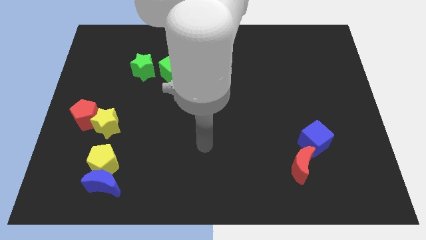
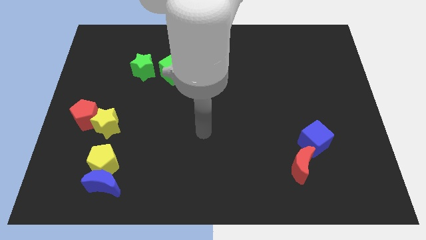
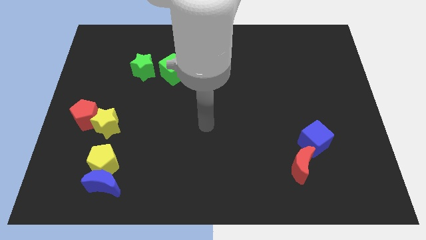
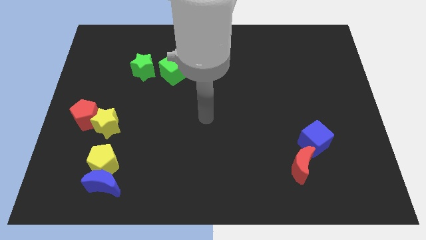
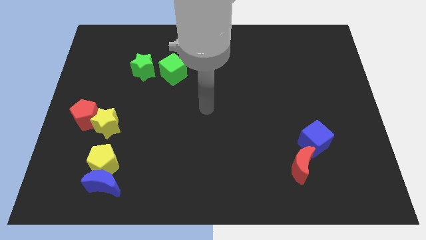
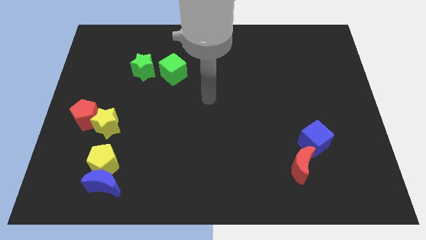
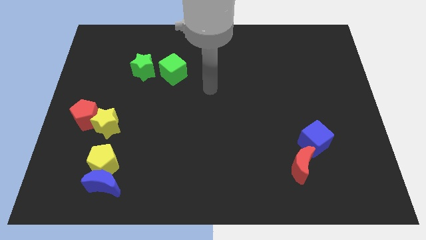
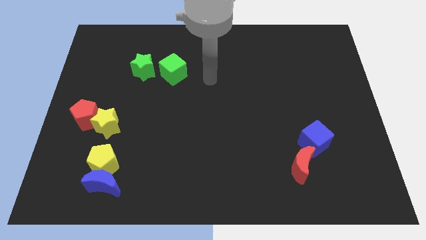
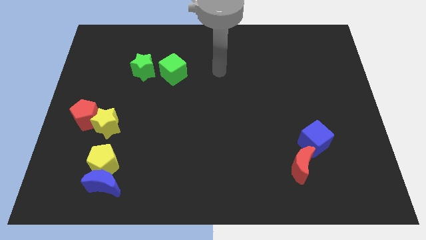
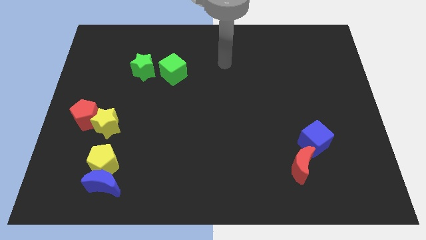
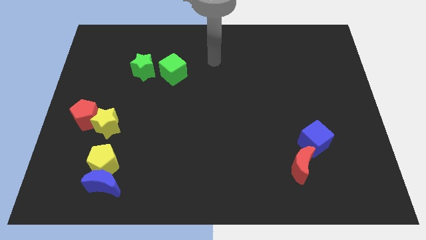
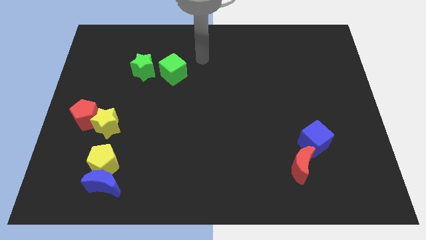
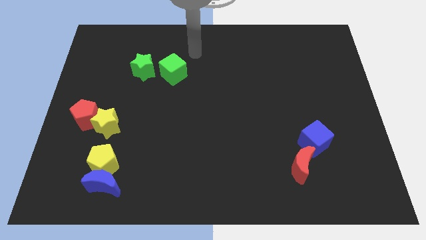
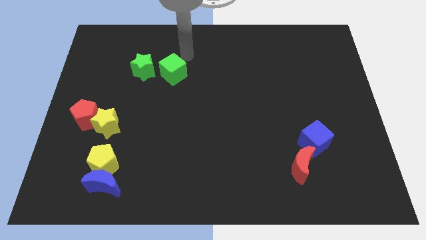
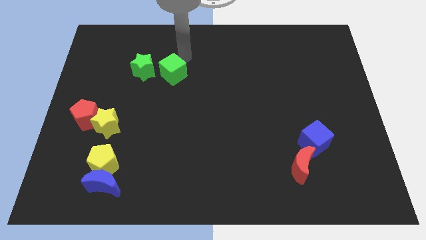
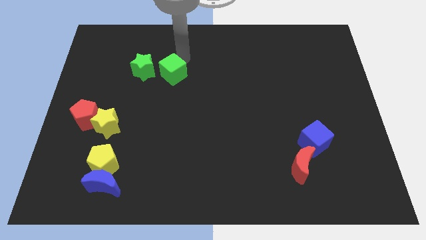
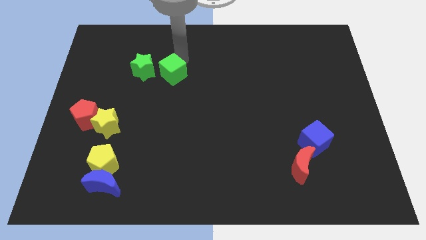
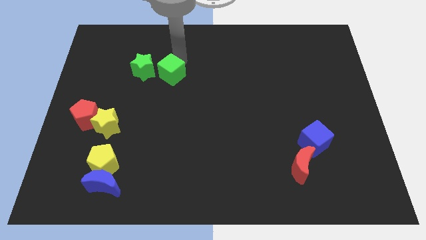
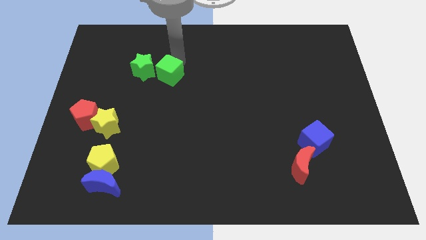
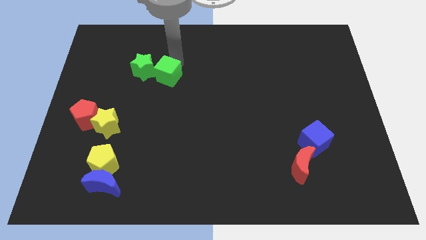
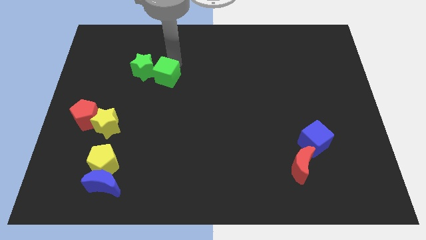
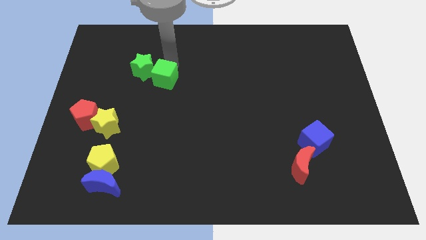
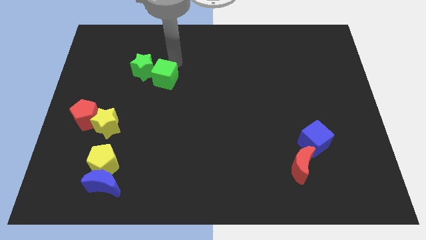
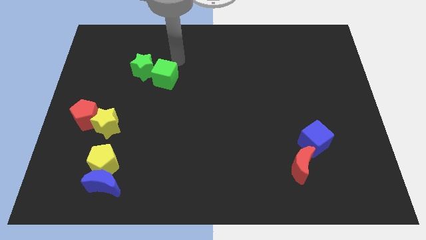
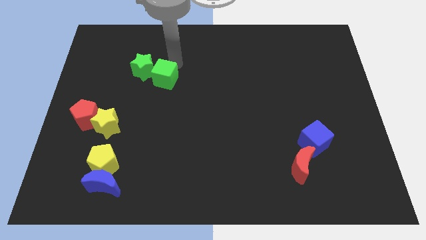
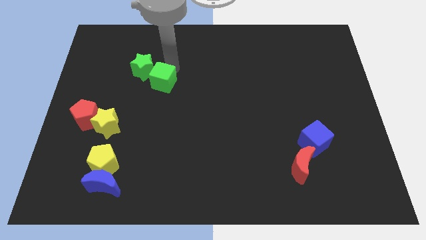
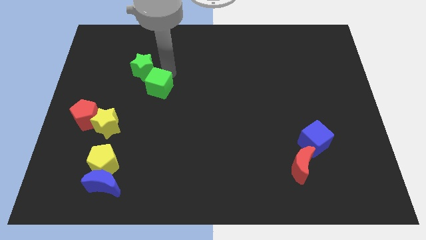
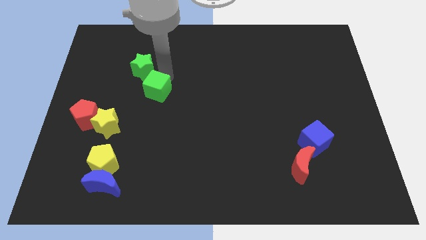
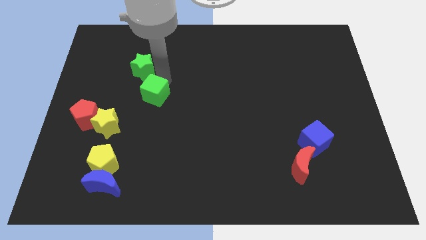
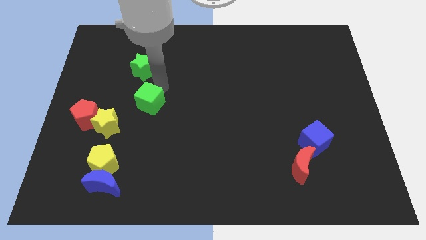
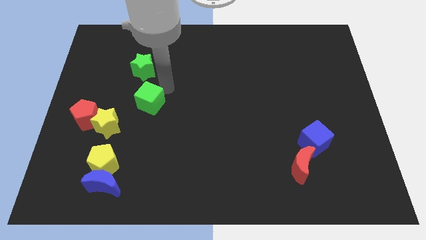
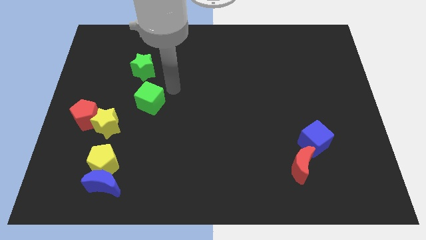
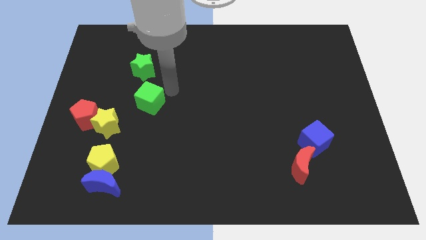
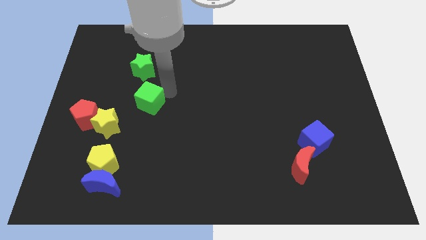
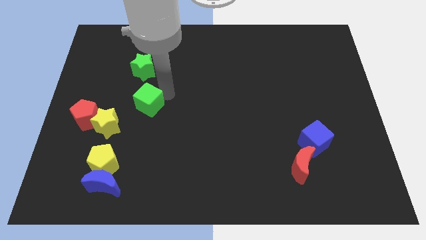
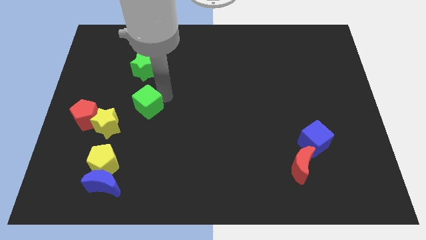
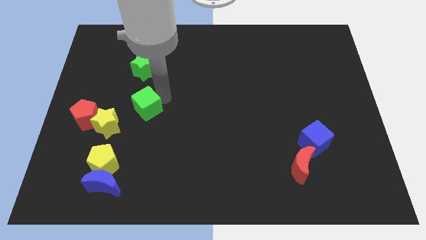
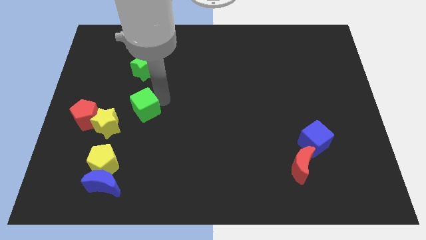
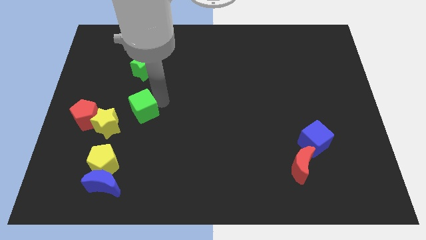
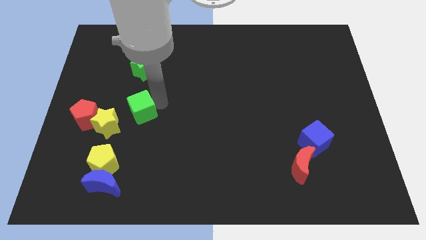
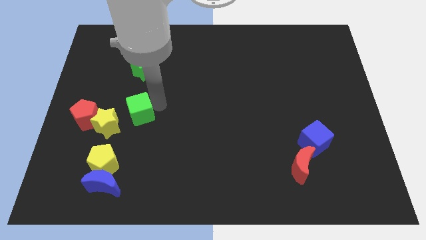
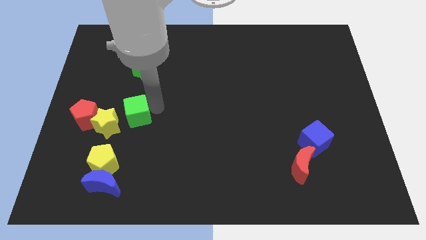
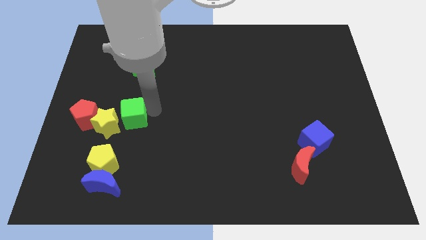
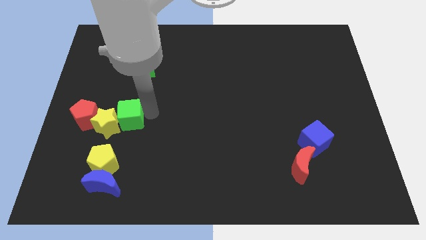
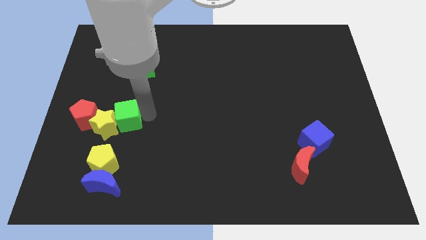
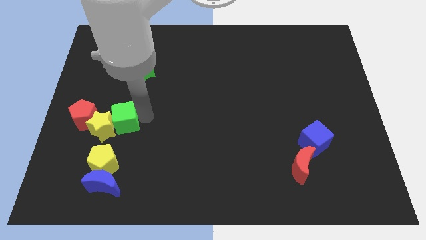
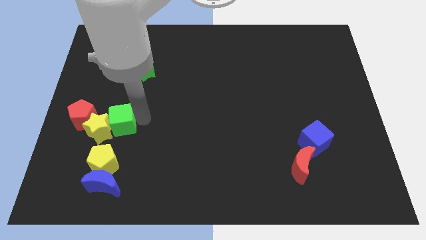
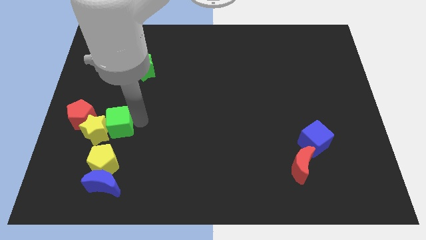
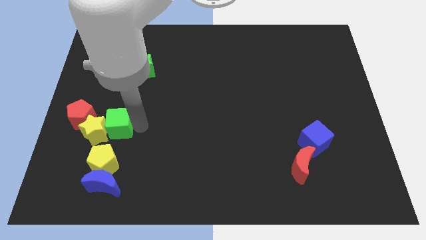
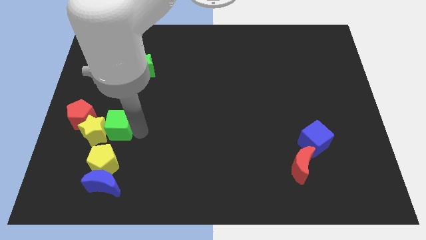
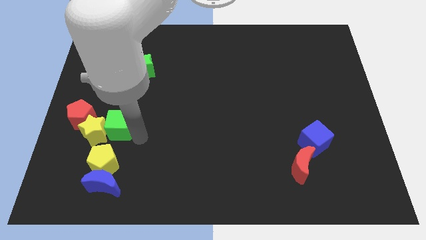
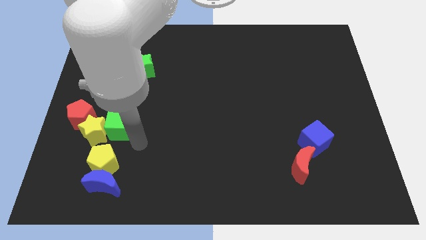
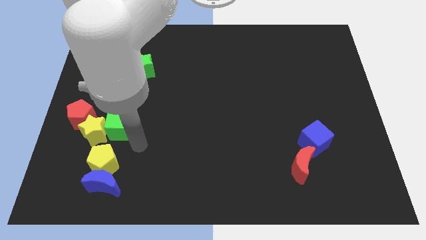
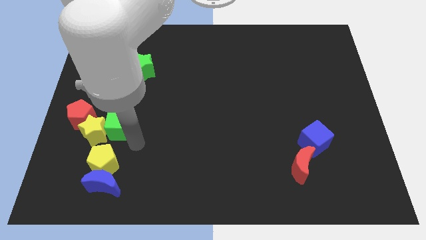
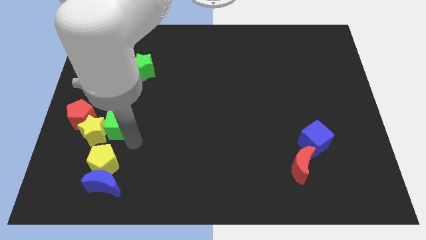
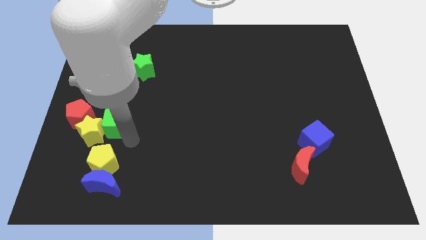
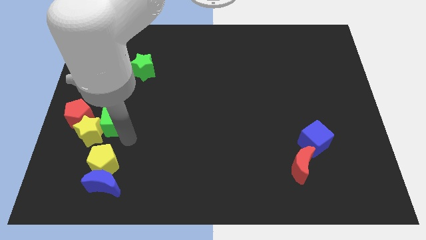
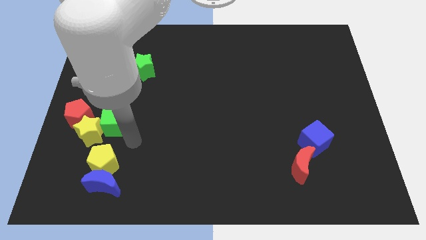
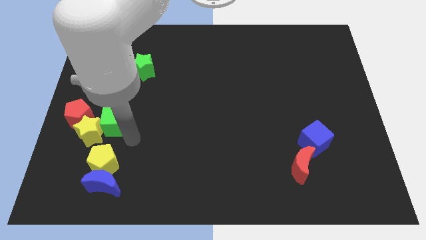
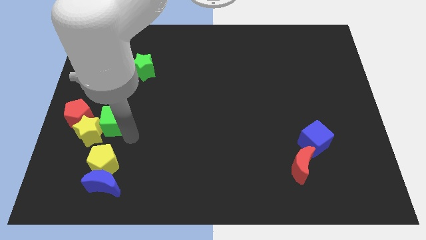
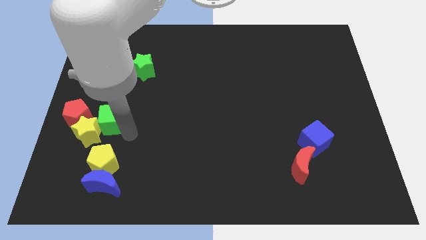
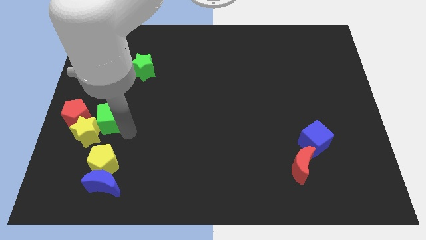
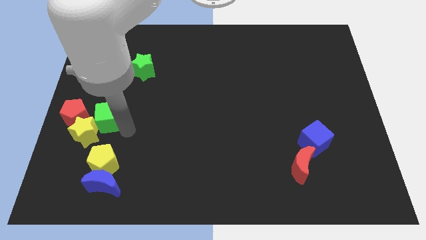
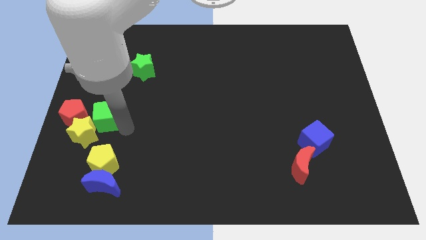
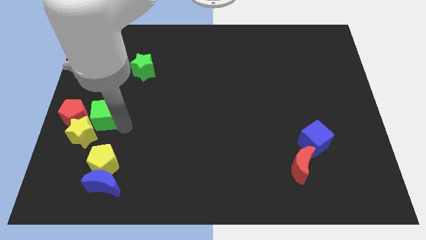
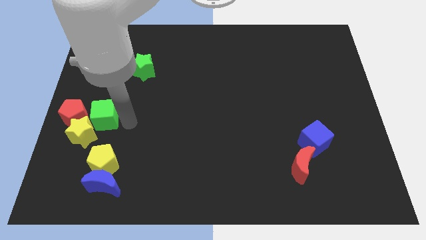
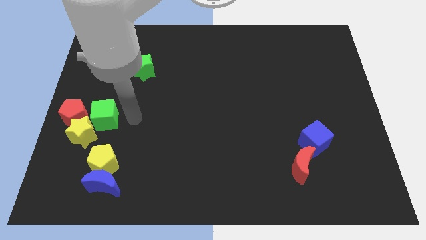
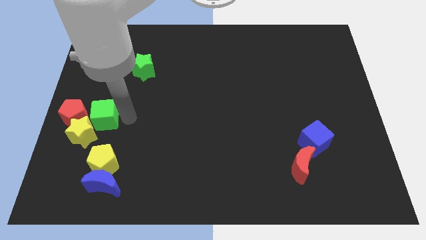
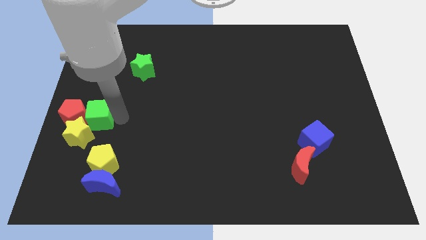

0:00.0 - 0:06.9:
push the green cube to the red pentagon

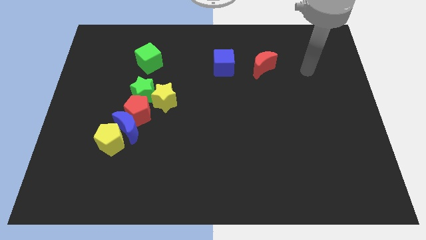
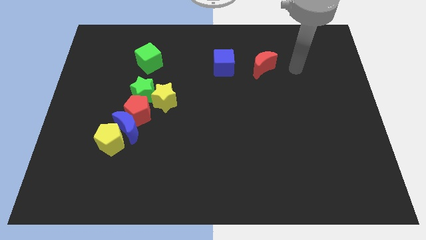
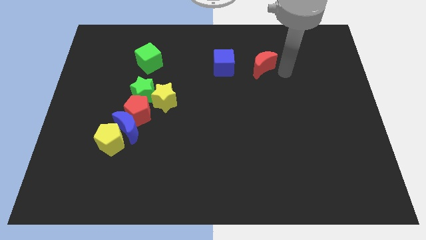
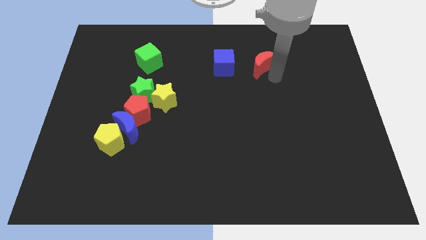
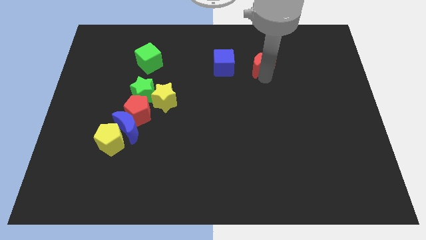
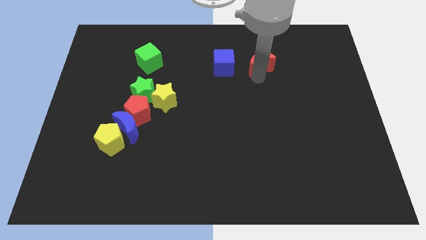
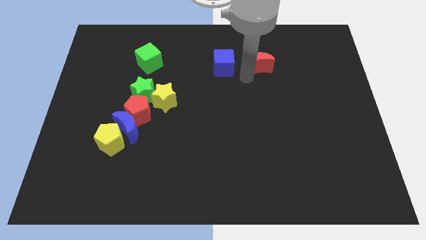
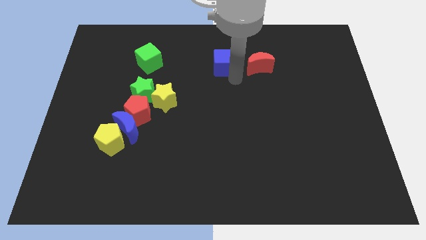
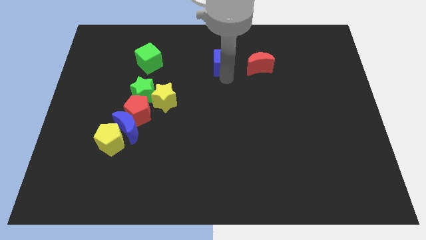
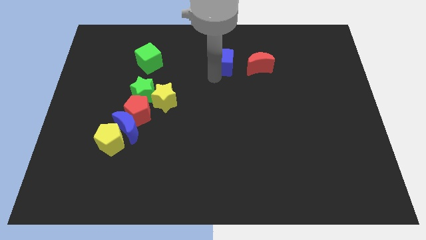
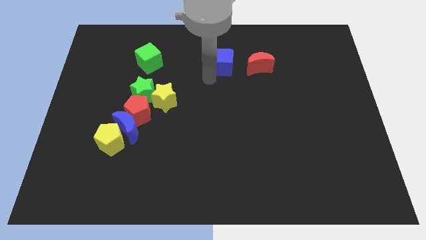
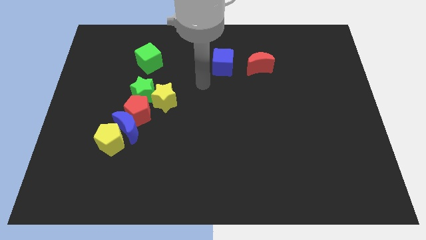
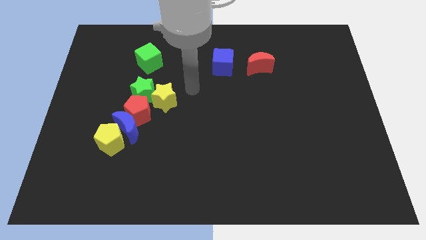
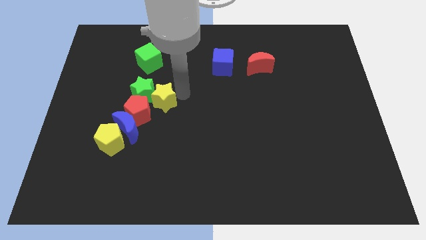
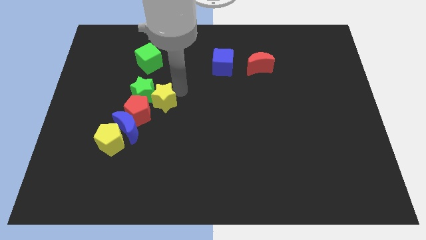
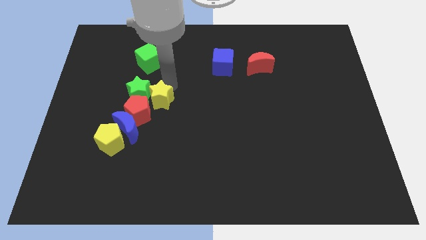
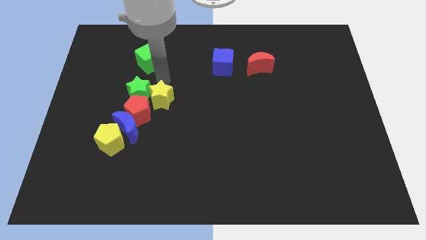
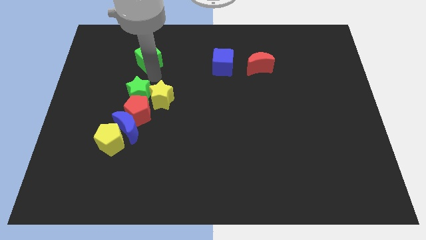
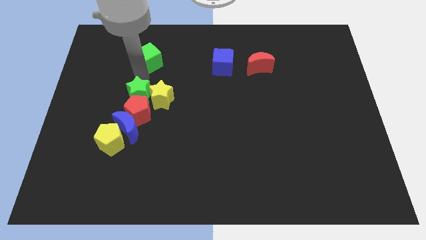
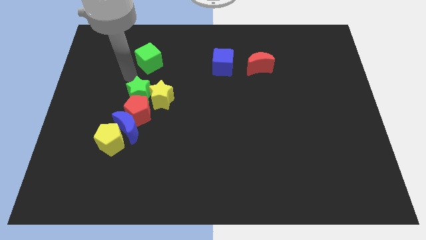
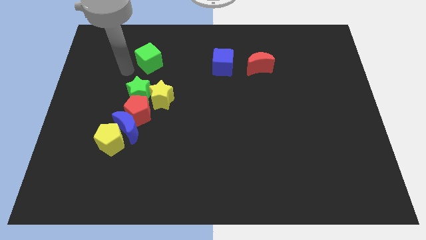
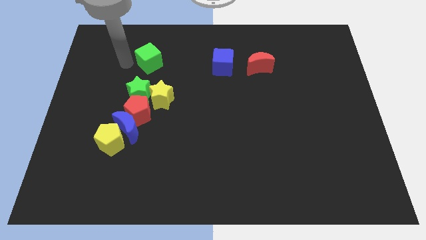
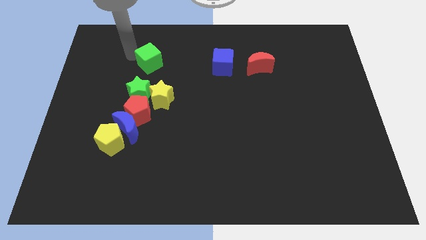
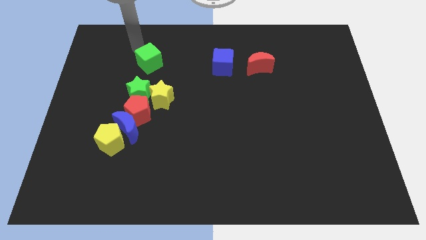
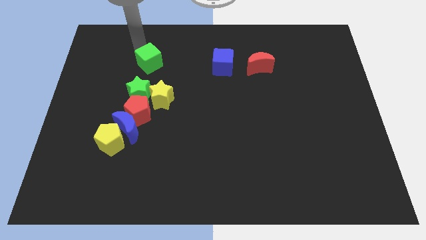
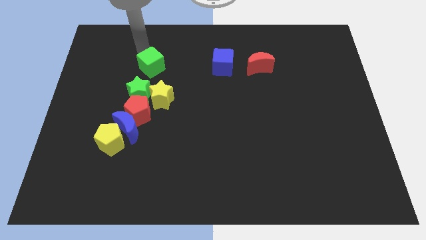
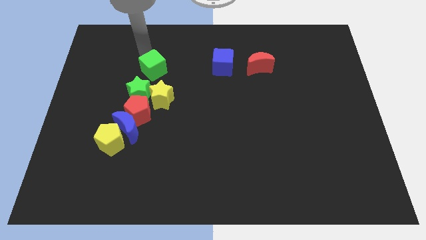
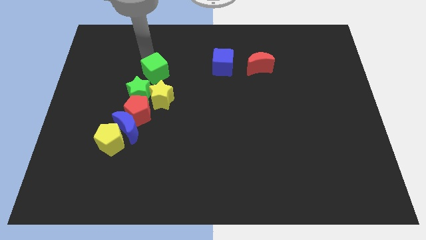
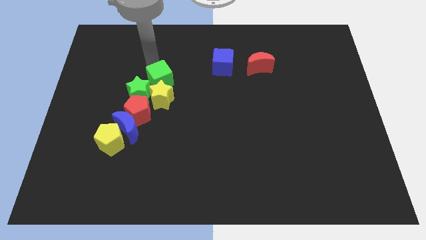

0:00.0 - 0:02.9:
move the green cube next to the yellow star
